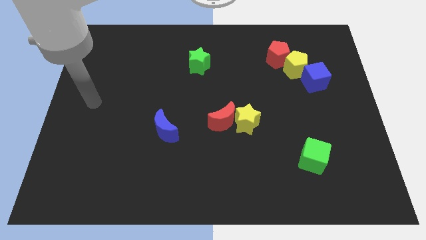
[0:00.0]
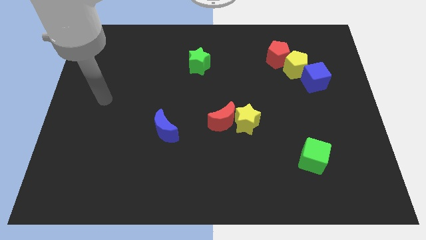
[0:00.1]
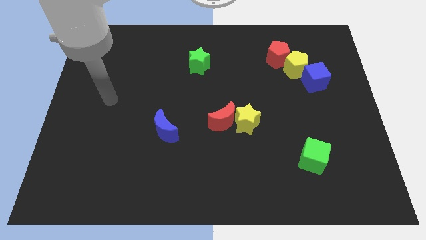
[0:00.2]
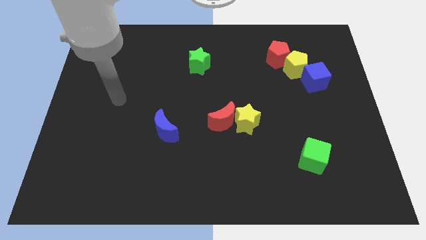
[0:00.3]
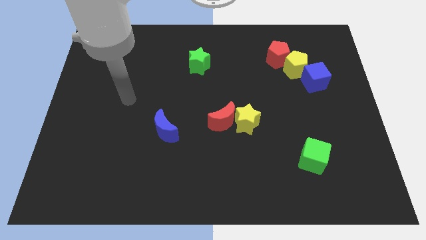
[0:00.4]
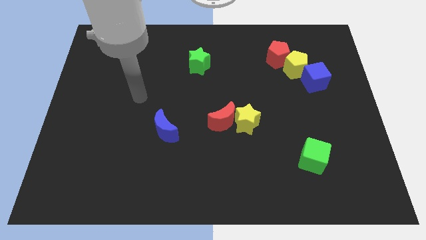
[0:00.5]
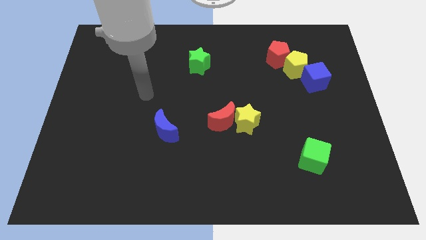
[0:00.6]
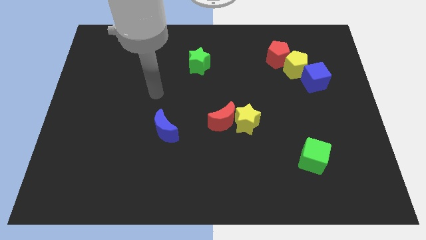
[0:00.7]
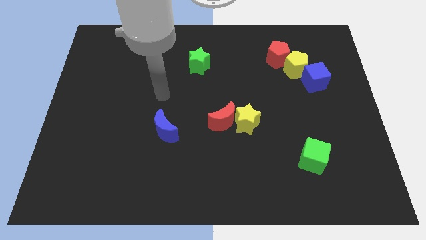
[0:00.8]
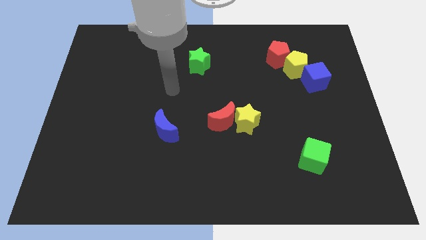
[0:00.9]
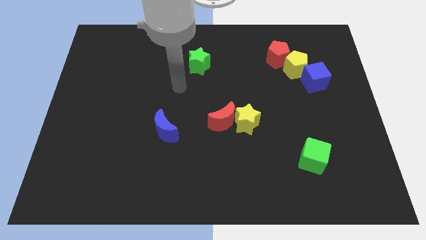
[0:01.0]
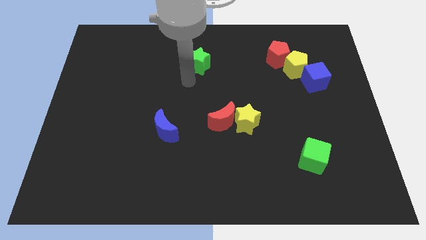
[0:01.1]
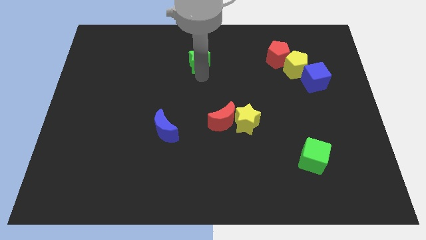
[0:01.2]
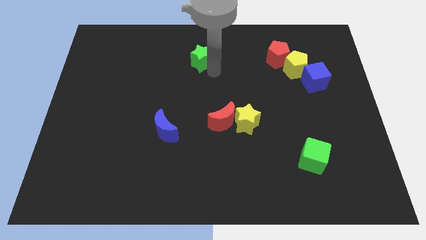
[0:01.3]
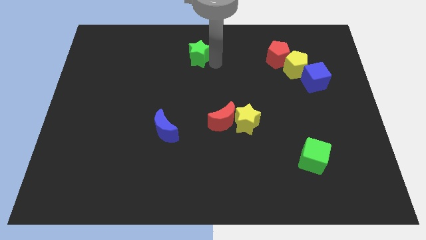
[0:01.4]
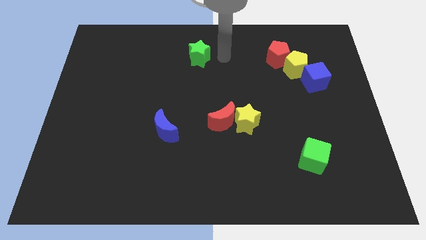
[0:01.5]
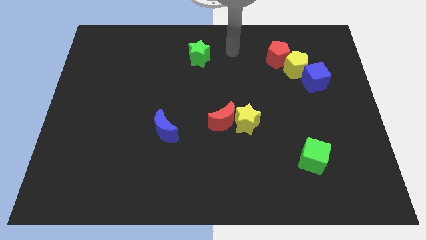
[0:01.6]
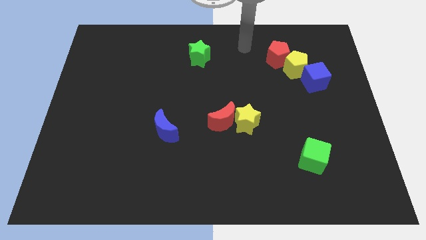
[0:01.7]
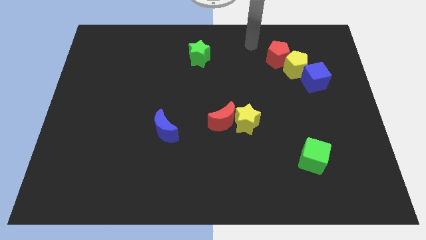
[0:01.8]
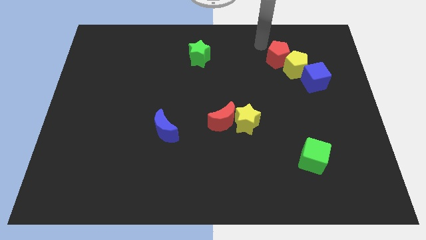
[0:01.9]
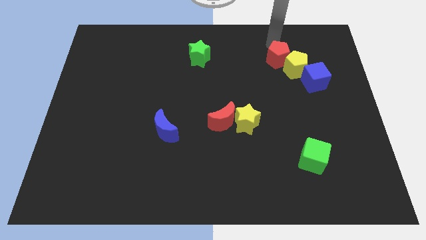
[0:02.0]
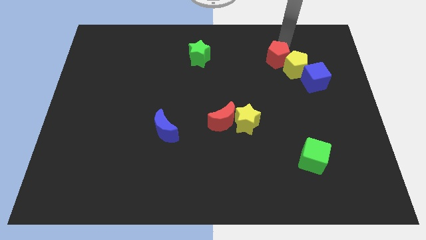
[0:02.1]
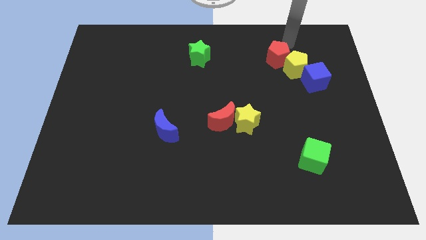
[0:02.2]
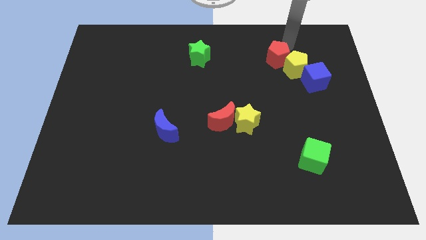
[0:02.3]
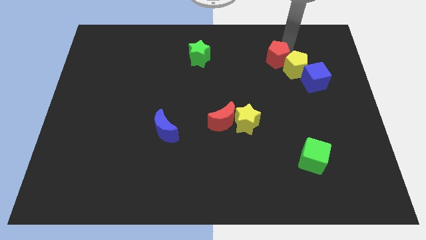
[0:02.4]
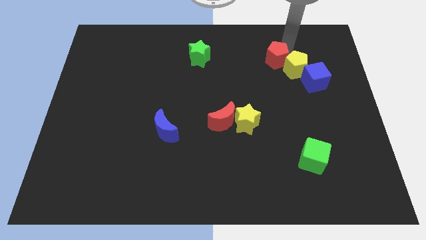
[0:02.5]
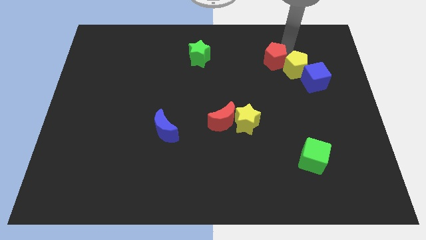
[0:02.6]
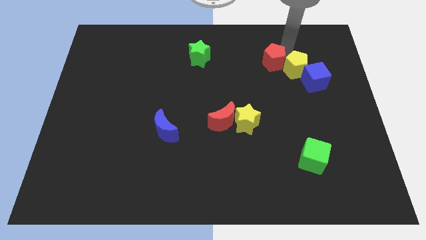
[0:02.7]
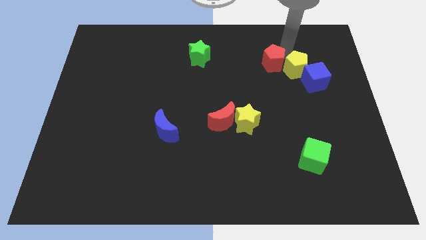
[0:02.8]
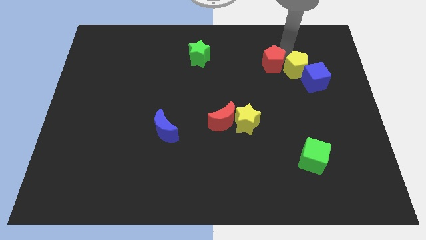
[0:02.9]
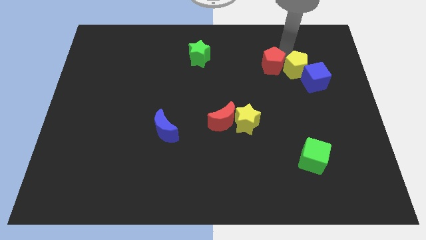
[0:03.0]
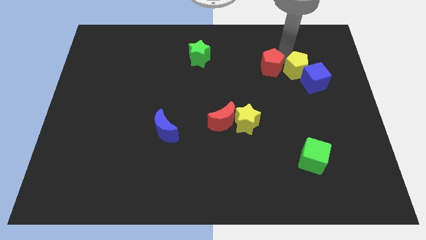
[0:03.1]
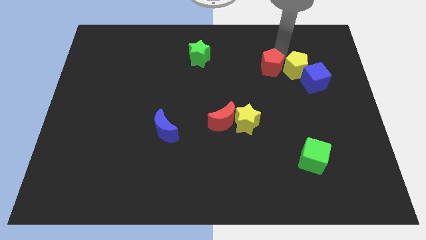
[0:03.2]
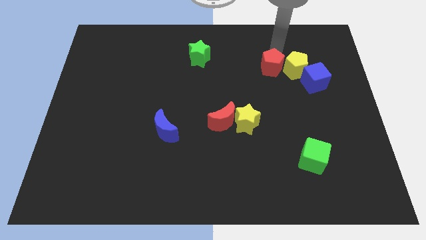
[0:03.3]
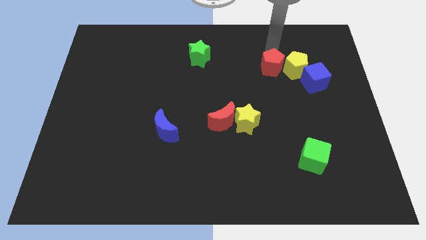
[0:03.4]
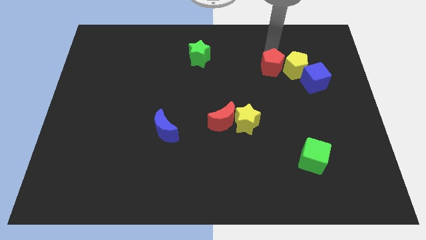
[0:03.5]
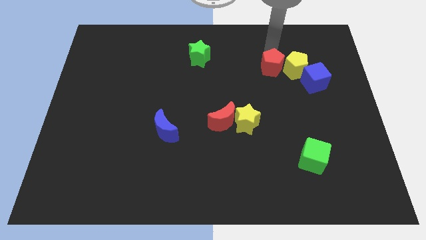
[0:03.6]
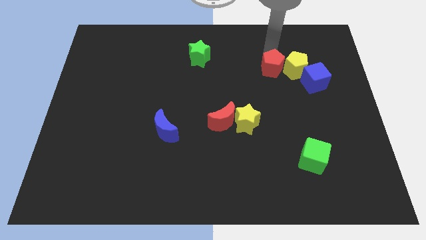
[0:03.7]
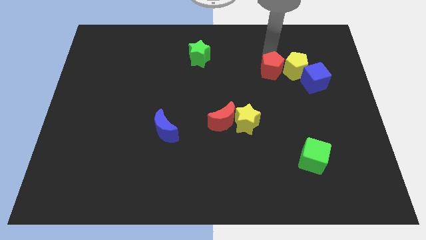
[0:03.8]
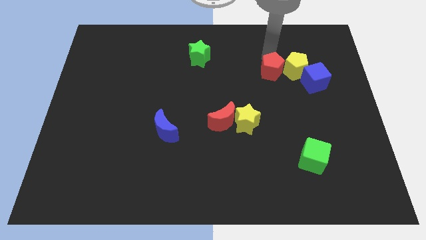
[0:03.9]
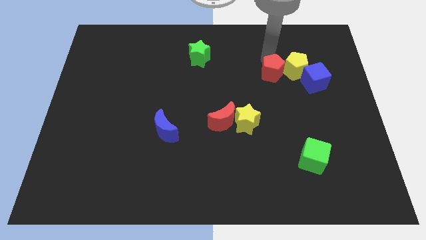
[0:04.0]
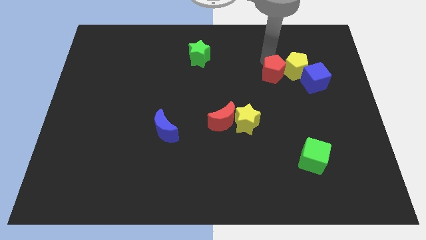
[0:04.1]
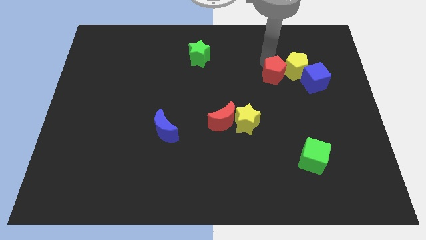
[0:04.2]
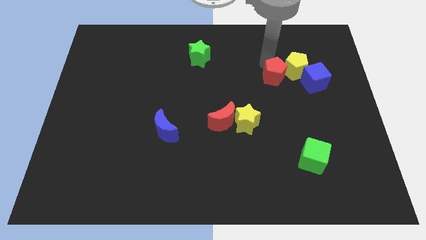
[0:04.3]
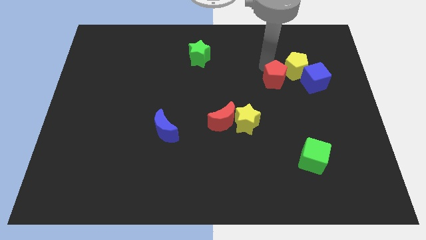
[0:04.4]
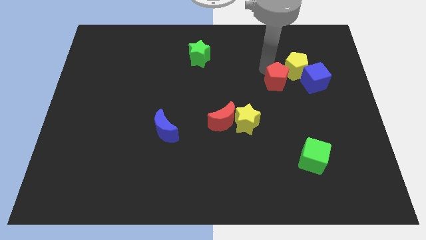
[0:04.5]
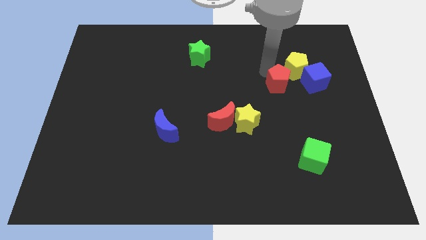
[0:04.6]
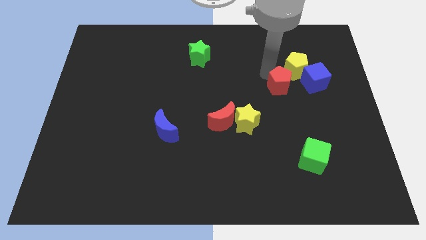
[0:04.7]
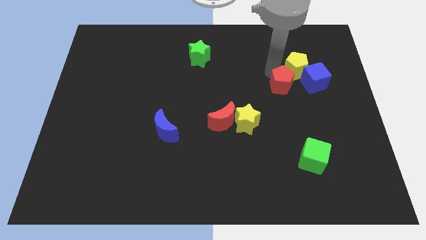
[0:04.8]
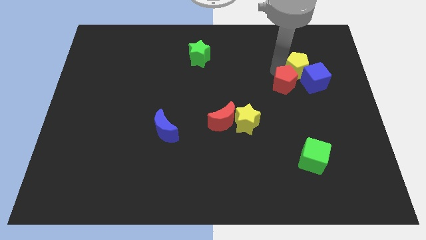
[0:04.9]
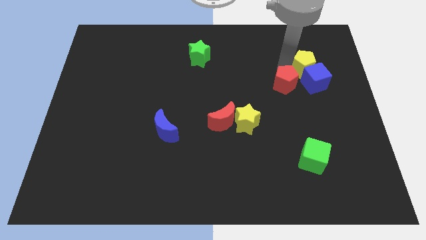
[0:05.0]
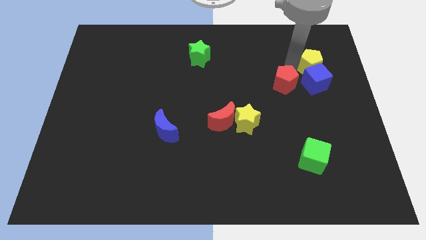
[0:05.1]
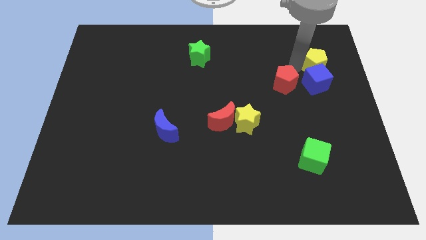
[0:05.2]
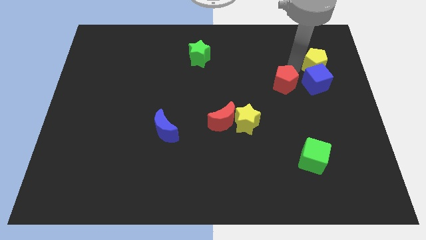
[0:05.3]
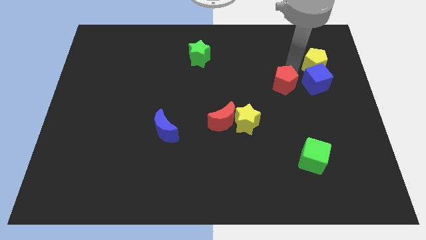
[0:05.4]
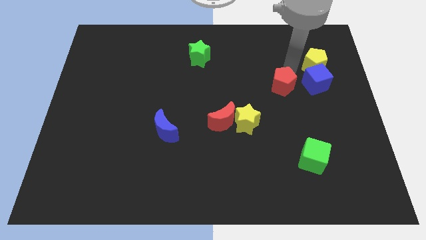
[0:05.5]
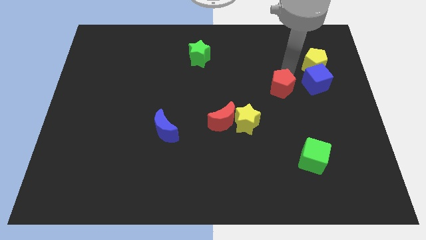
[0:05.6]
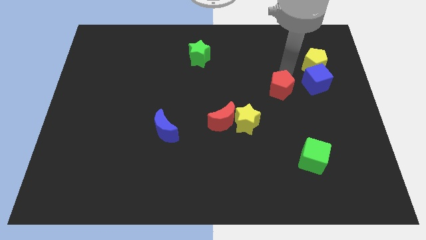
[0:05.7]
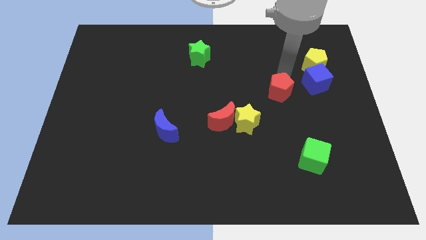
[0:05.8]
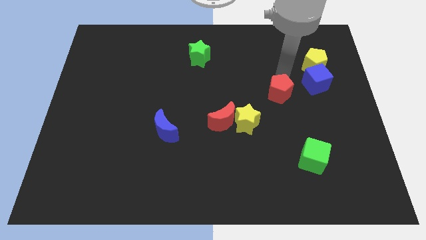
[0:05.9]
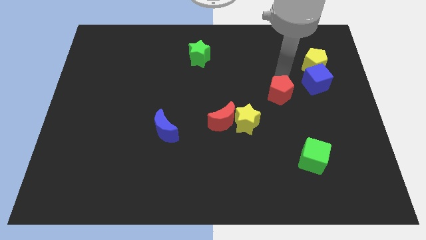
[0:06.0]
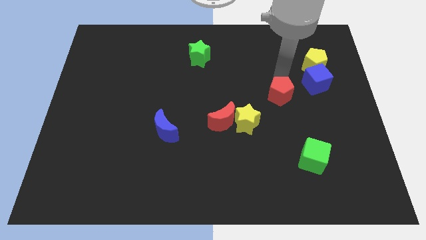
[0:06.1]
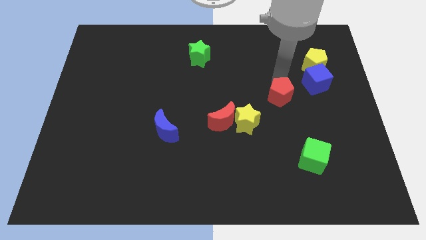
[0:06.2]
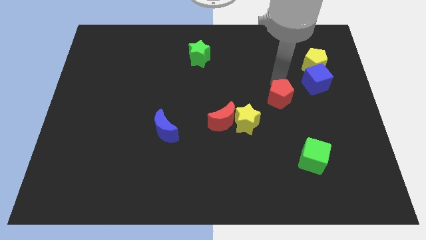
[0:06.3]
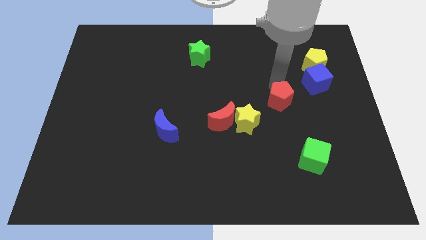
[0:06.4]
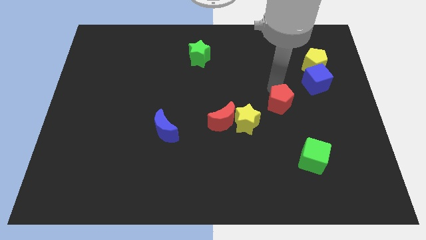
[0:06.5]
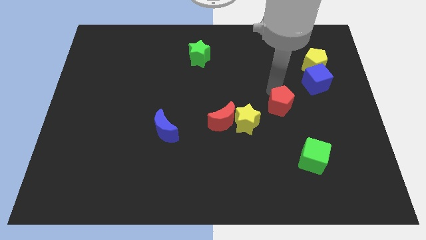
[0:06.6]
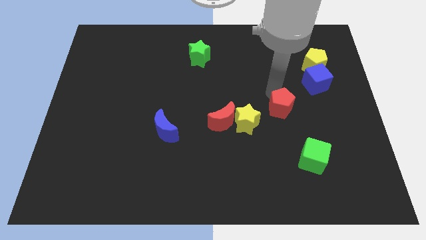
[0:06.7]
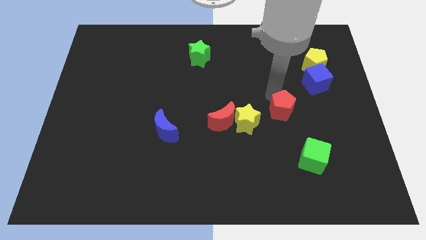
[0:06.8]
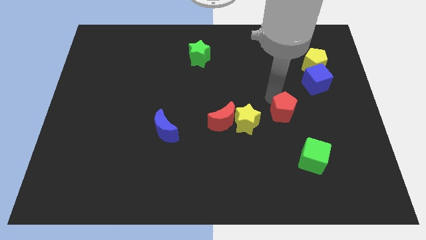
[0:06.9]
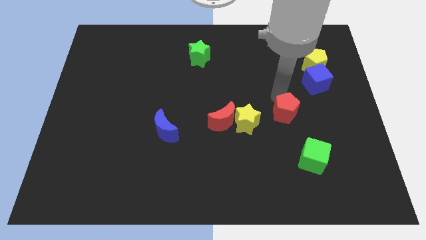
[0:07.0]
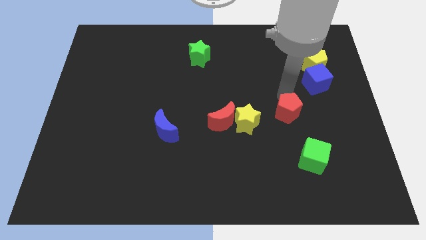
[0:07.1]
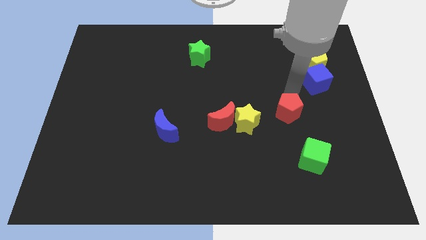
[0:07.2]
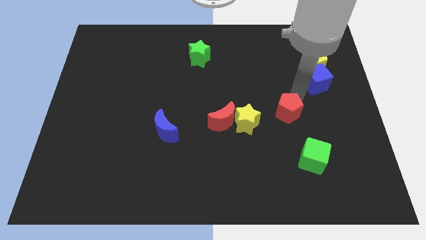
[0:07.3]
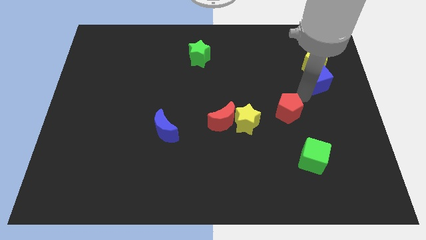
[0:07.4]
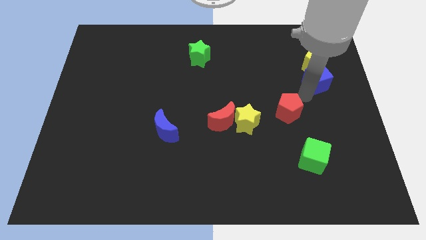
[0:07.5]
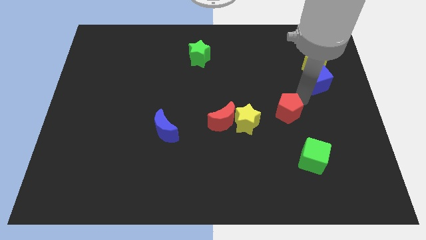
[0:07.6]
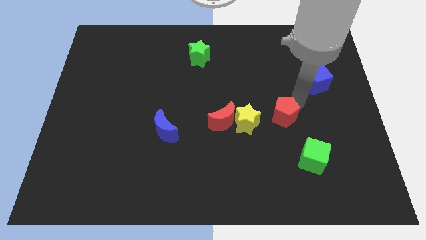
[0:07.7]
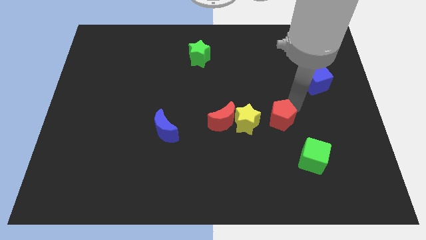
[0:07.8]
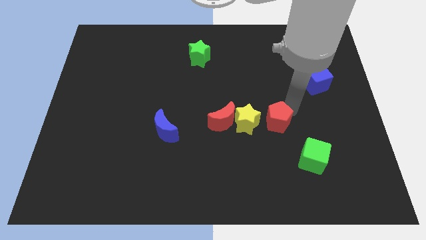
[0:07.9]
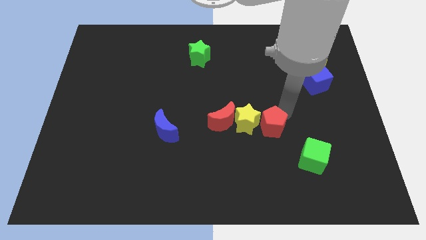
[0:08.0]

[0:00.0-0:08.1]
put the red pentagon to the bottom right of the yellow star
